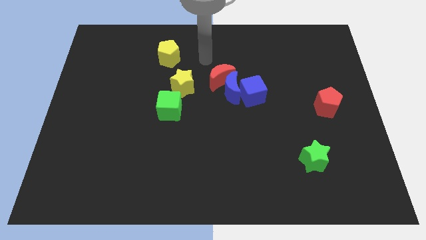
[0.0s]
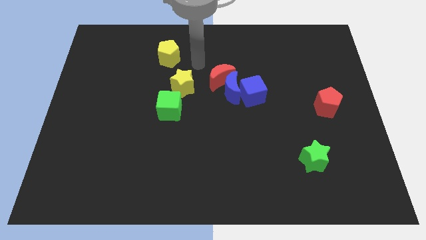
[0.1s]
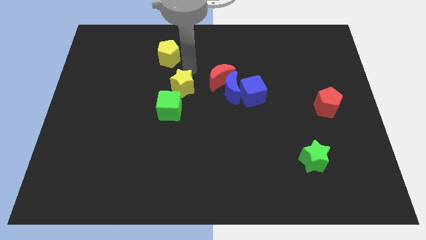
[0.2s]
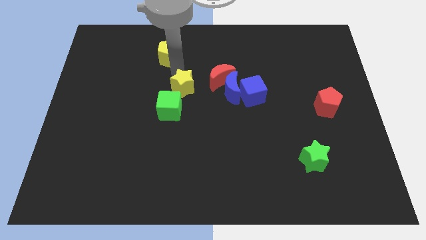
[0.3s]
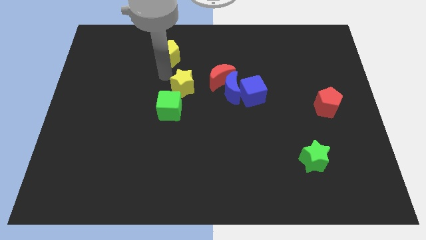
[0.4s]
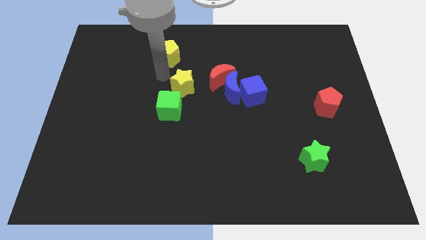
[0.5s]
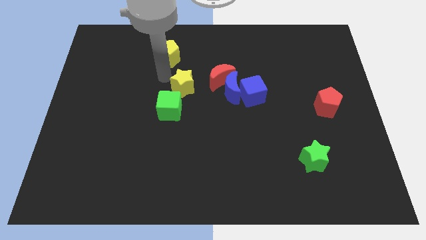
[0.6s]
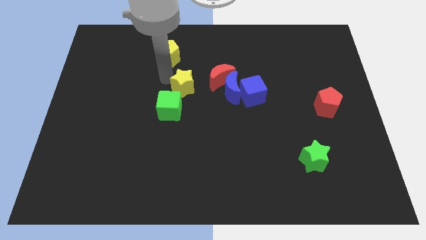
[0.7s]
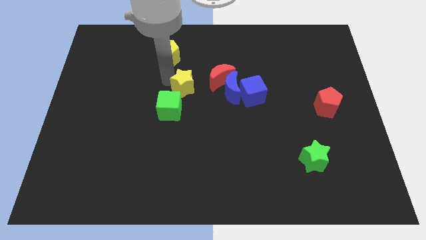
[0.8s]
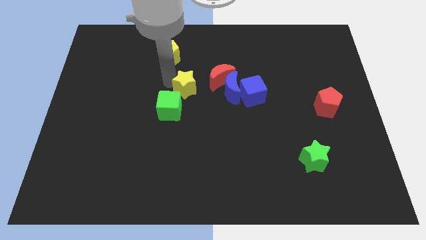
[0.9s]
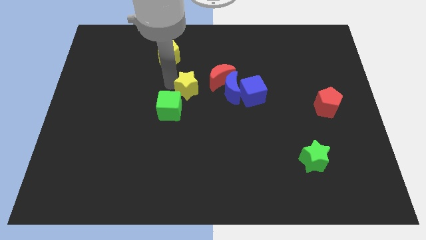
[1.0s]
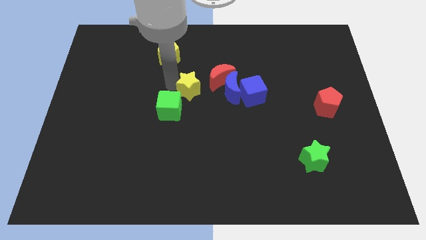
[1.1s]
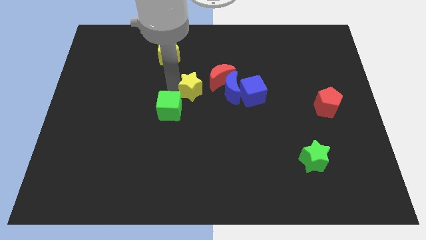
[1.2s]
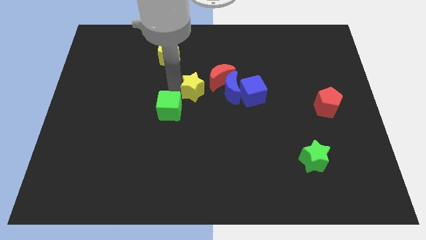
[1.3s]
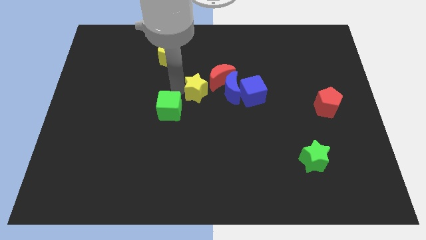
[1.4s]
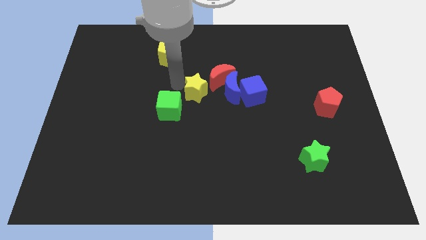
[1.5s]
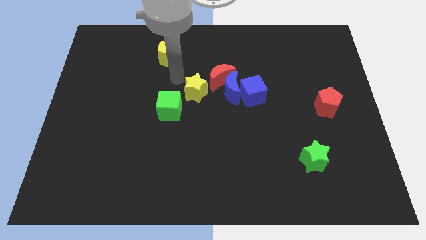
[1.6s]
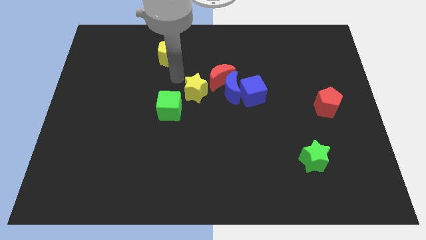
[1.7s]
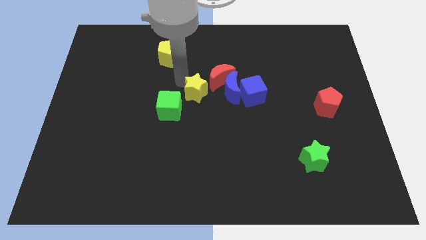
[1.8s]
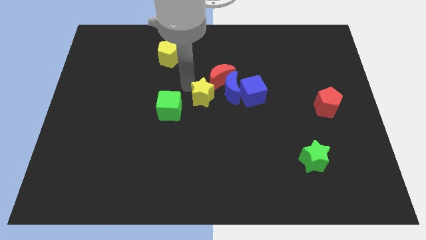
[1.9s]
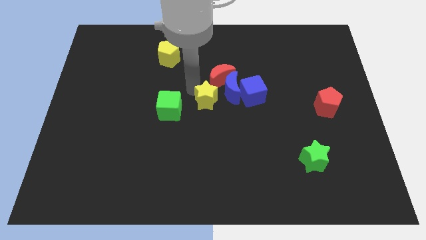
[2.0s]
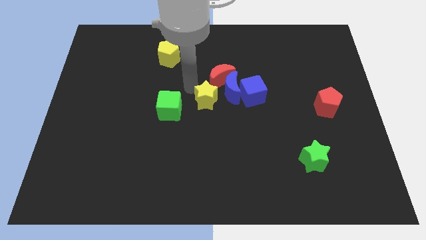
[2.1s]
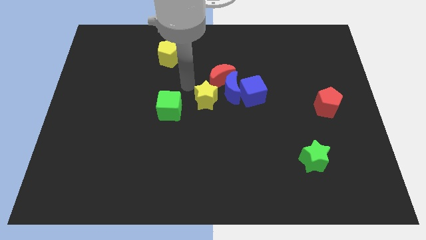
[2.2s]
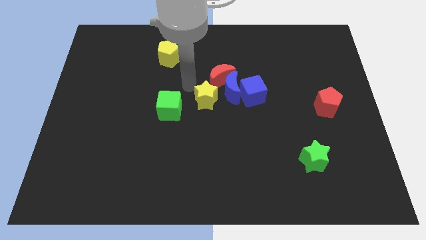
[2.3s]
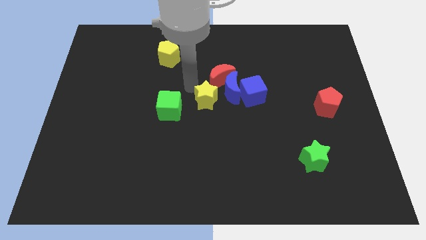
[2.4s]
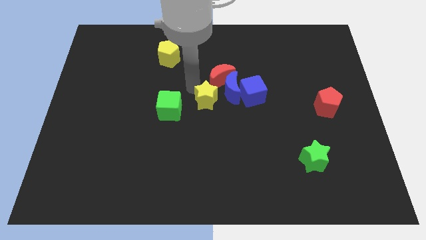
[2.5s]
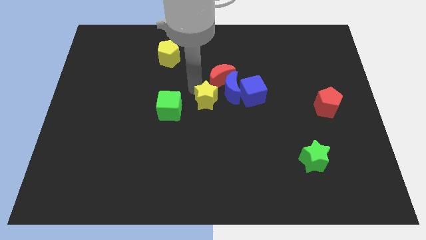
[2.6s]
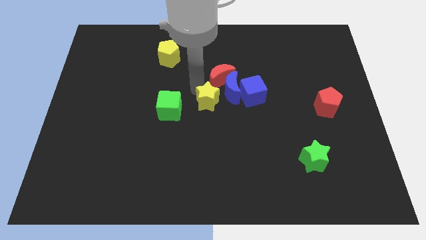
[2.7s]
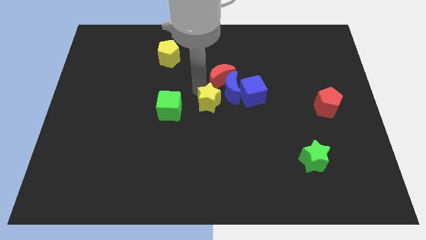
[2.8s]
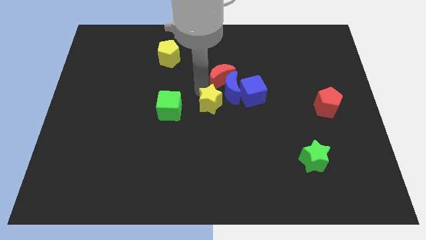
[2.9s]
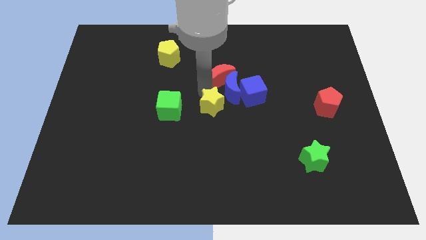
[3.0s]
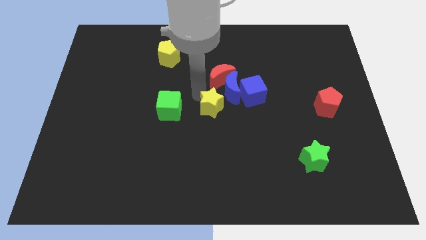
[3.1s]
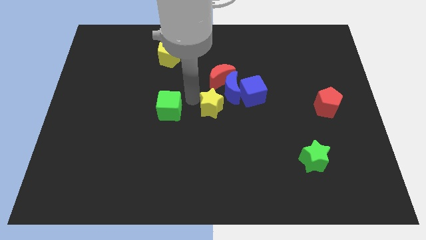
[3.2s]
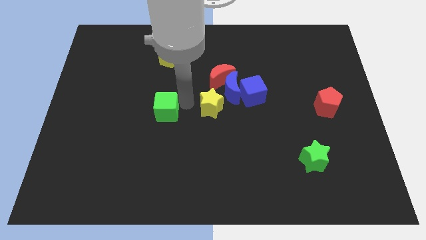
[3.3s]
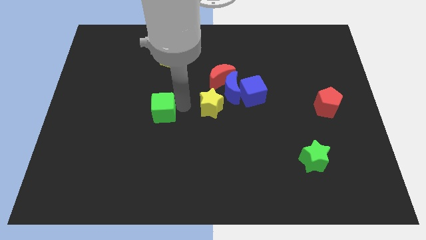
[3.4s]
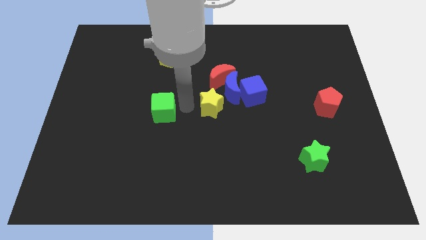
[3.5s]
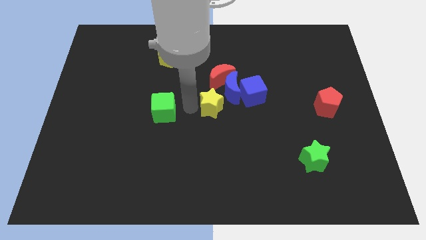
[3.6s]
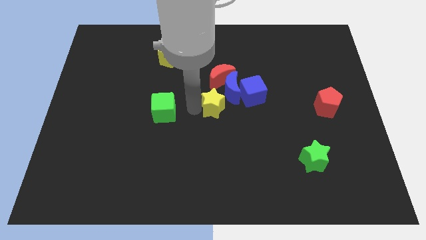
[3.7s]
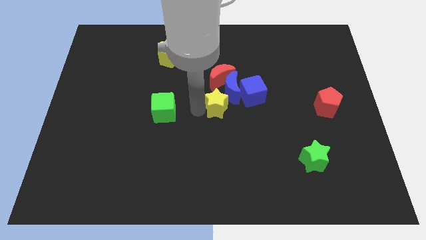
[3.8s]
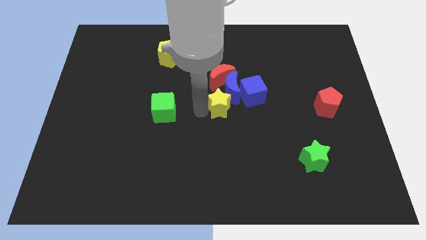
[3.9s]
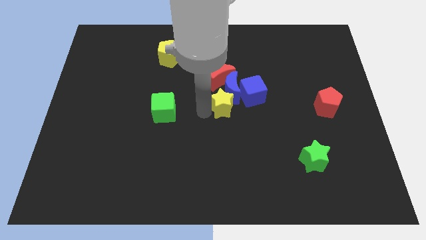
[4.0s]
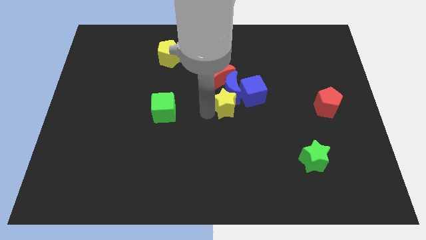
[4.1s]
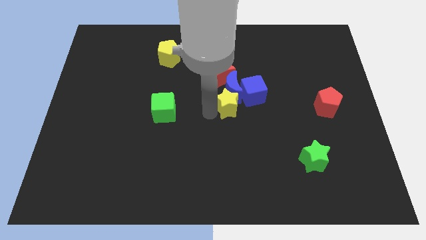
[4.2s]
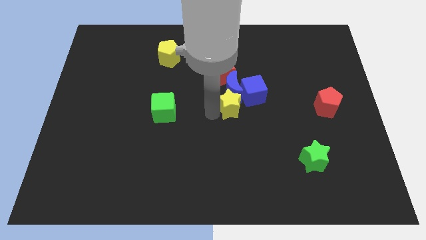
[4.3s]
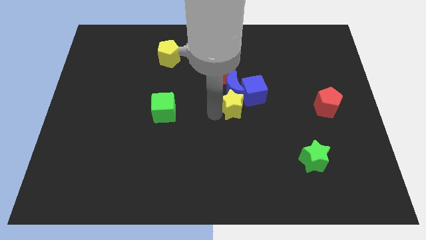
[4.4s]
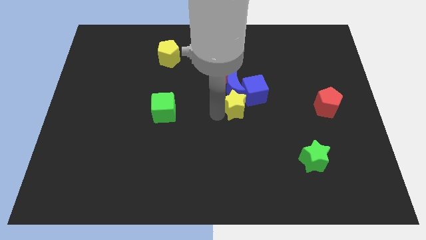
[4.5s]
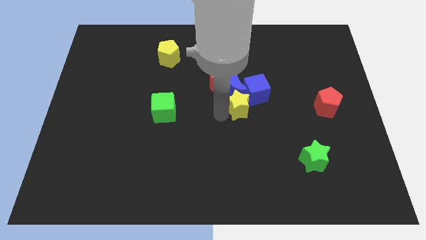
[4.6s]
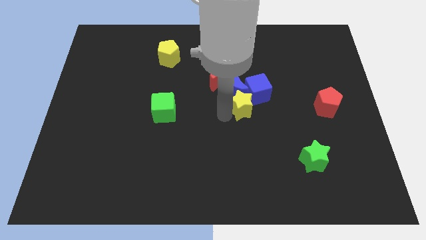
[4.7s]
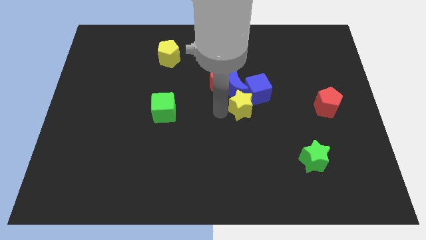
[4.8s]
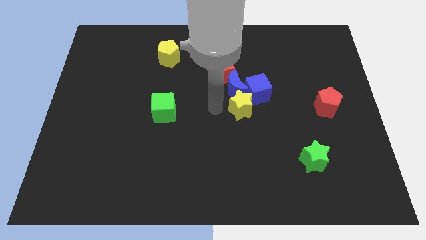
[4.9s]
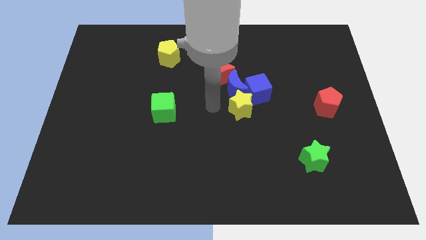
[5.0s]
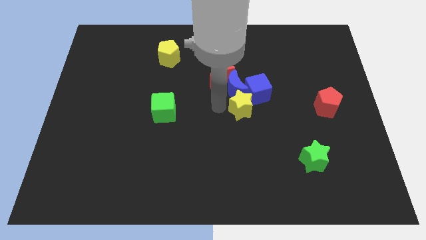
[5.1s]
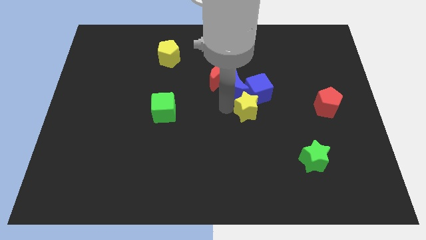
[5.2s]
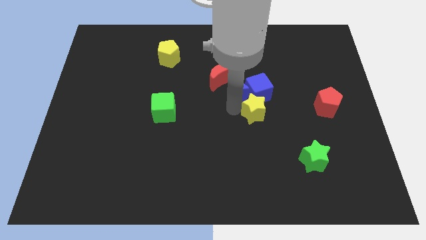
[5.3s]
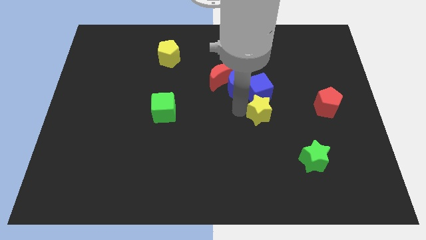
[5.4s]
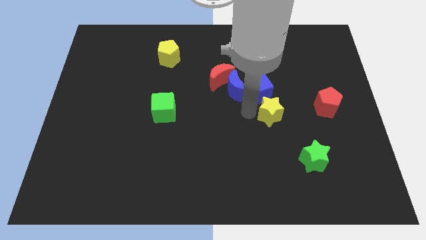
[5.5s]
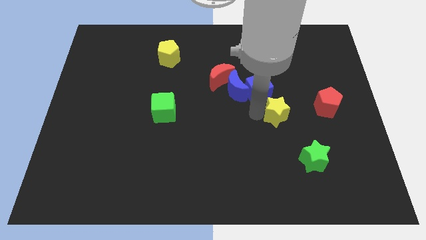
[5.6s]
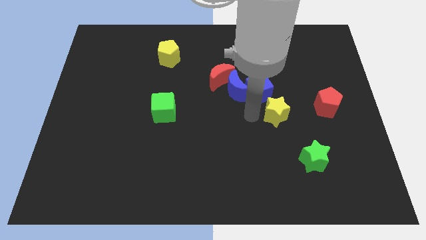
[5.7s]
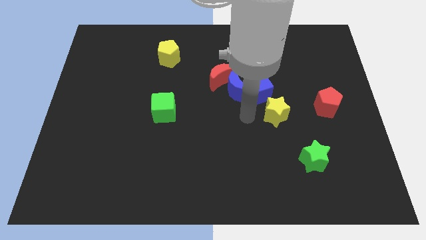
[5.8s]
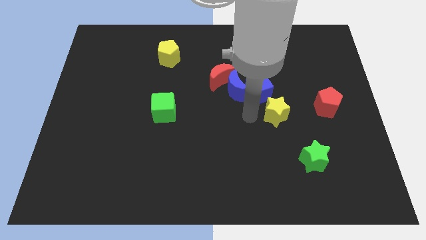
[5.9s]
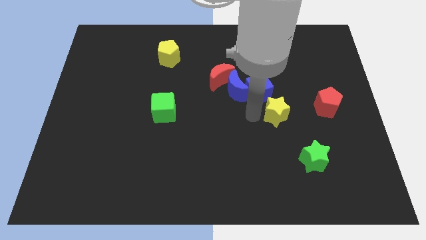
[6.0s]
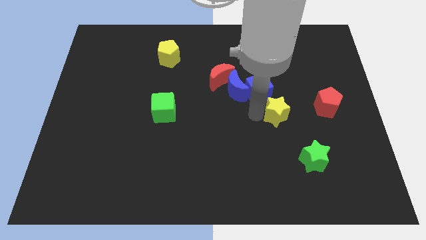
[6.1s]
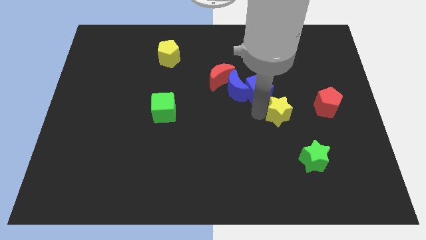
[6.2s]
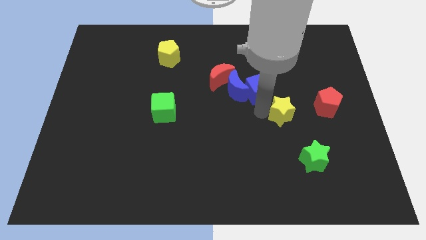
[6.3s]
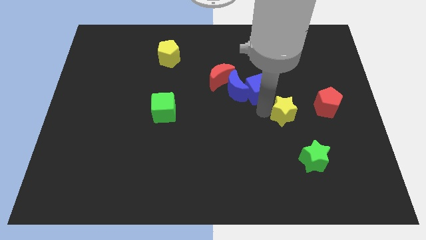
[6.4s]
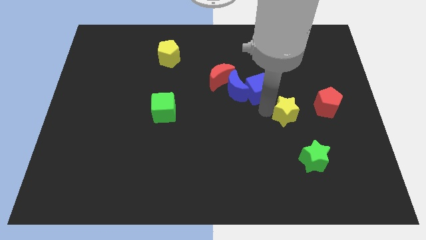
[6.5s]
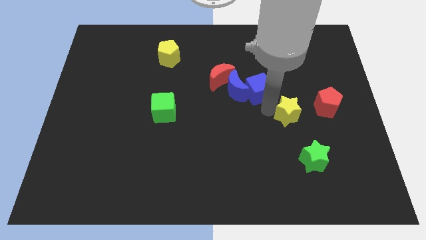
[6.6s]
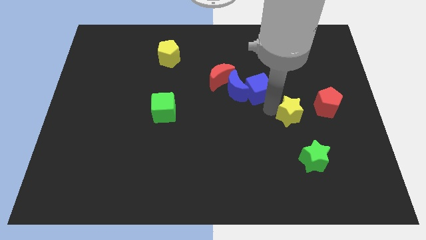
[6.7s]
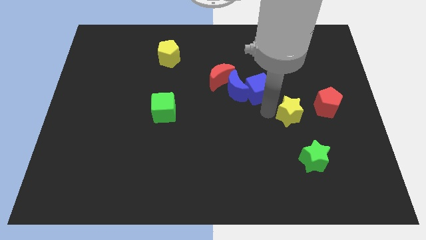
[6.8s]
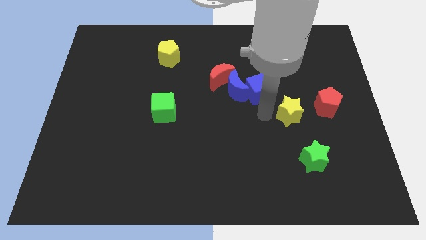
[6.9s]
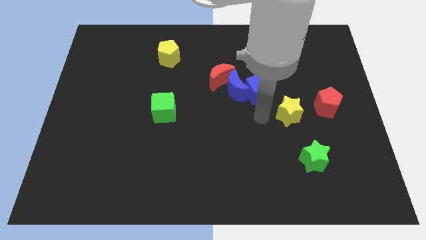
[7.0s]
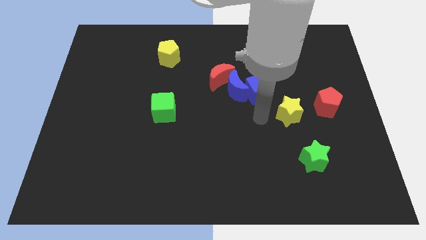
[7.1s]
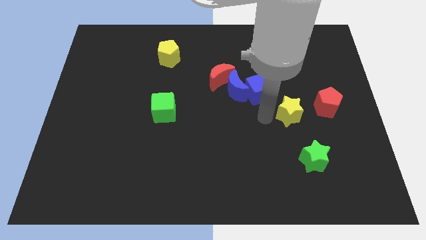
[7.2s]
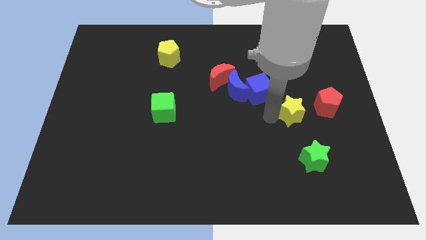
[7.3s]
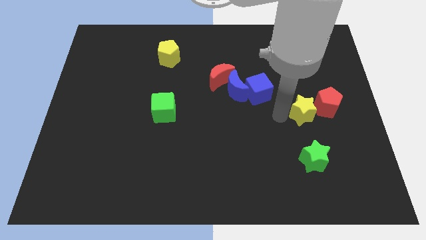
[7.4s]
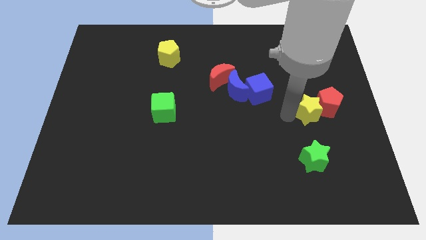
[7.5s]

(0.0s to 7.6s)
move the yellow star to the red pentagon
